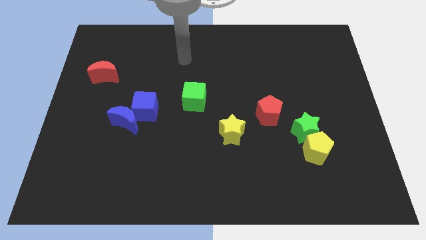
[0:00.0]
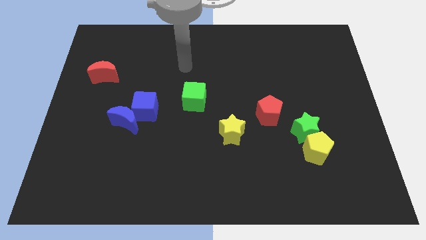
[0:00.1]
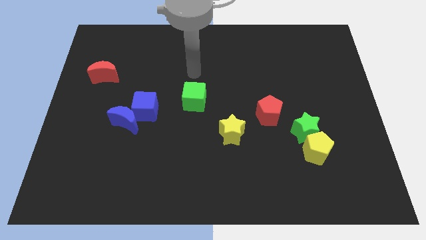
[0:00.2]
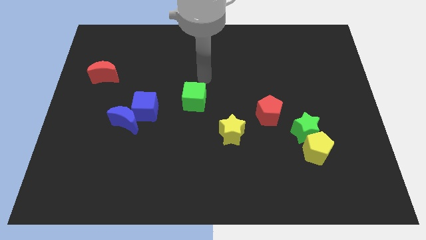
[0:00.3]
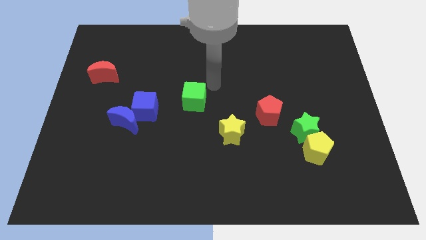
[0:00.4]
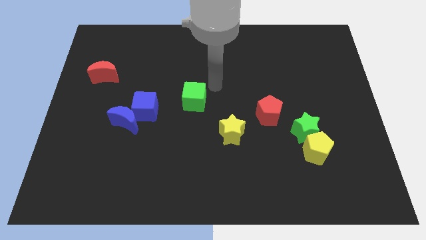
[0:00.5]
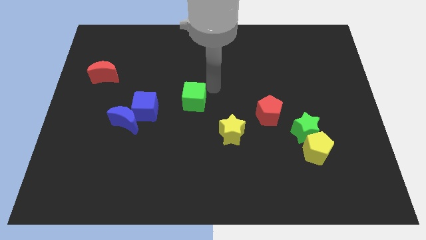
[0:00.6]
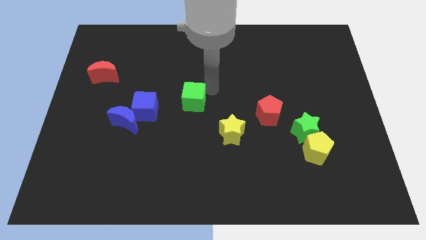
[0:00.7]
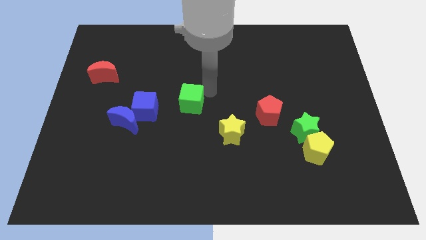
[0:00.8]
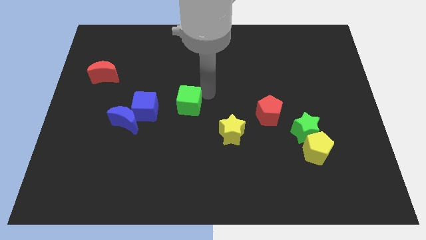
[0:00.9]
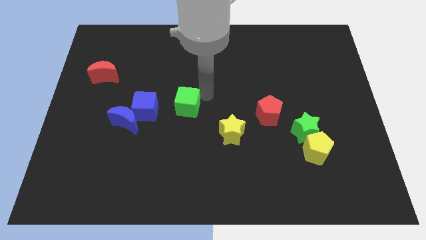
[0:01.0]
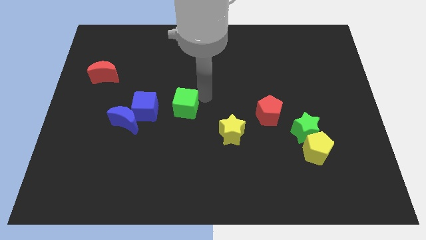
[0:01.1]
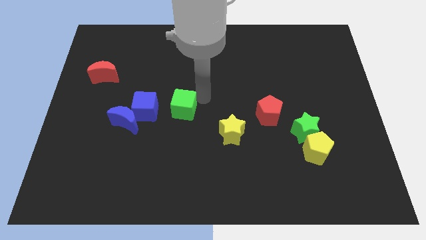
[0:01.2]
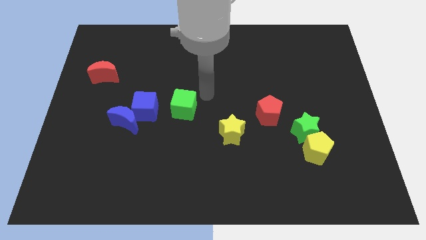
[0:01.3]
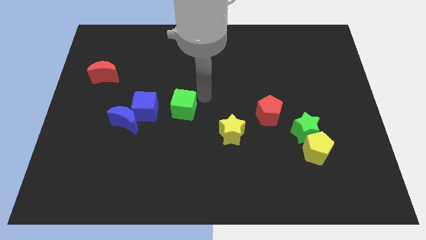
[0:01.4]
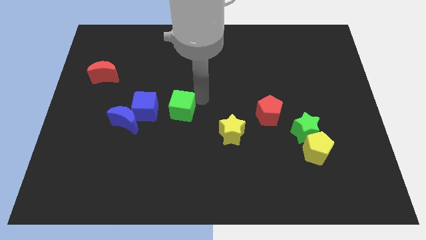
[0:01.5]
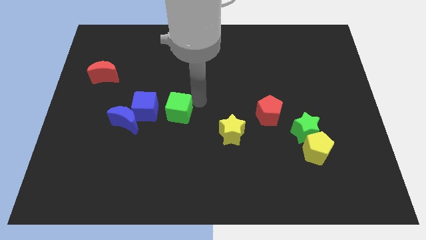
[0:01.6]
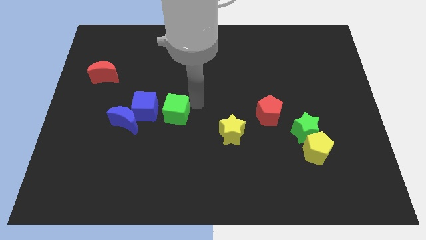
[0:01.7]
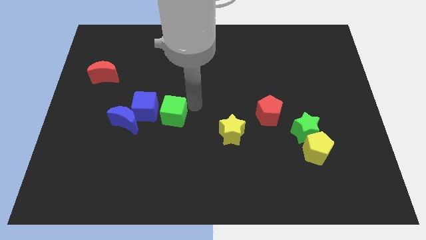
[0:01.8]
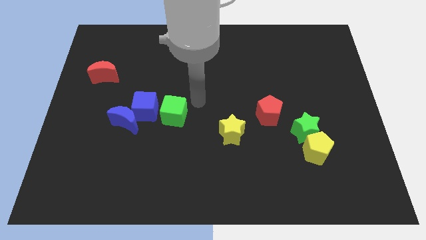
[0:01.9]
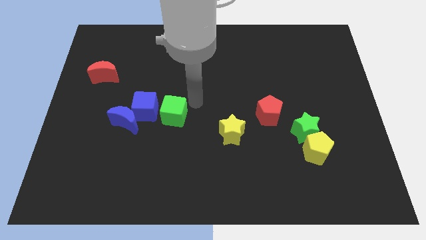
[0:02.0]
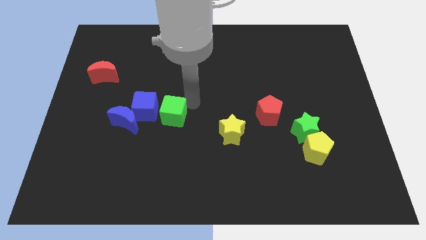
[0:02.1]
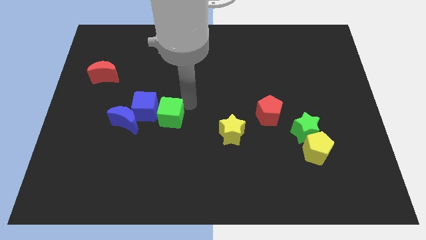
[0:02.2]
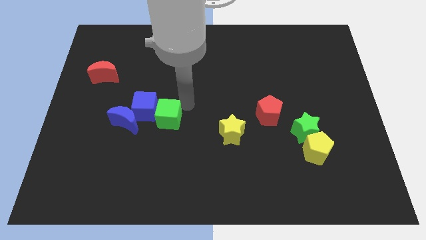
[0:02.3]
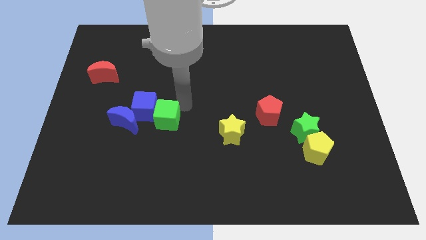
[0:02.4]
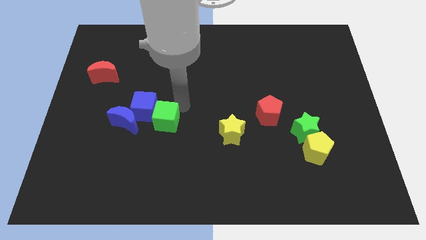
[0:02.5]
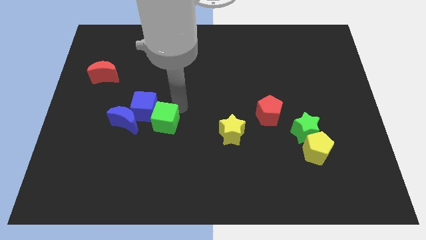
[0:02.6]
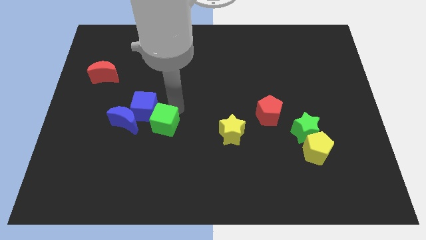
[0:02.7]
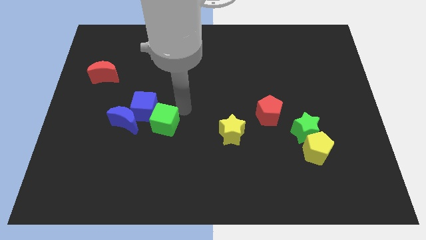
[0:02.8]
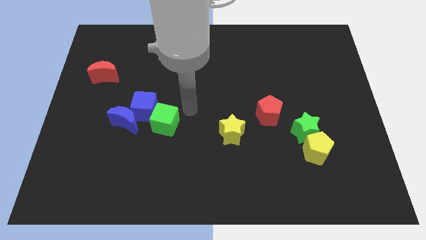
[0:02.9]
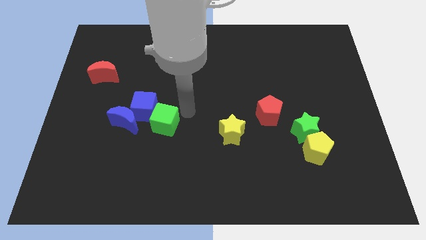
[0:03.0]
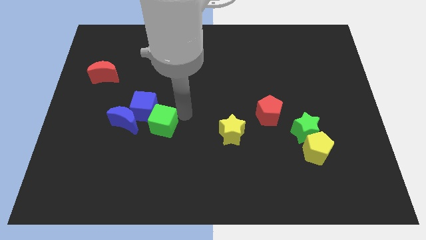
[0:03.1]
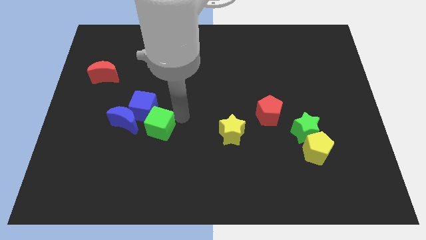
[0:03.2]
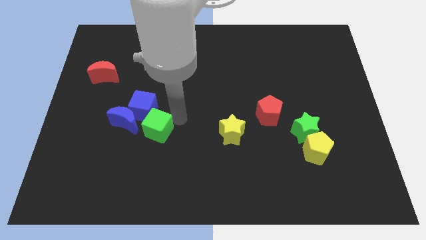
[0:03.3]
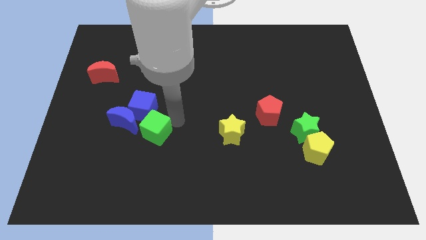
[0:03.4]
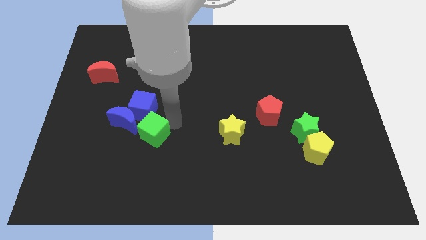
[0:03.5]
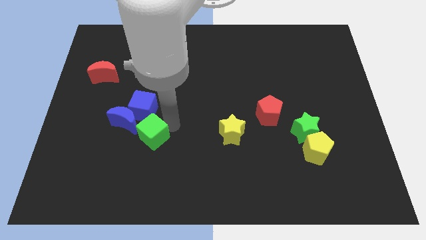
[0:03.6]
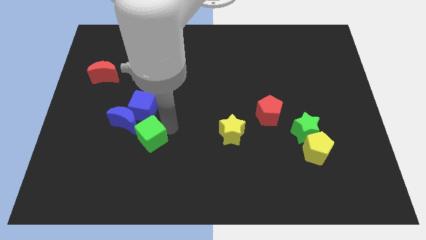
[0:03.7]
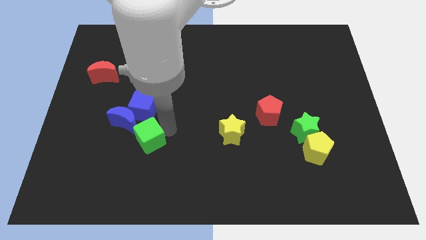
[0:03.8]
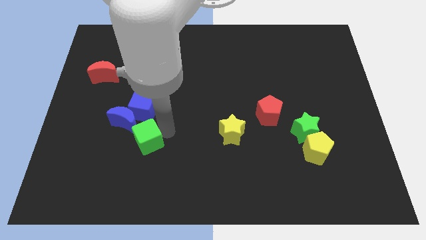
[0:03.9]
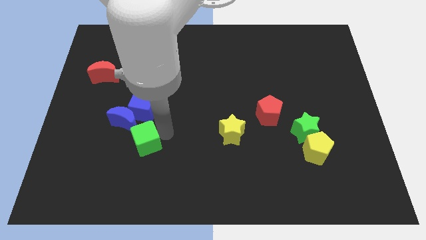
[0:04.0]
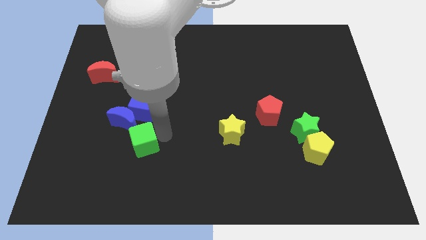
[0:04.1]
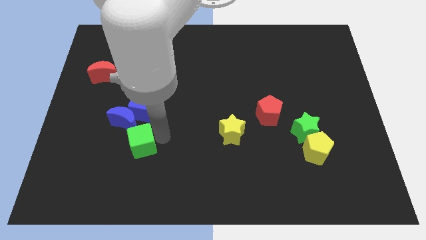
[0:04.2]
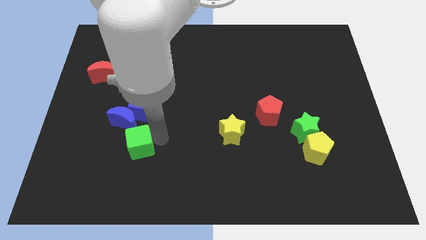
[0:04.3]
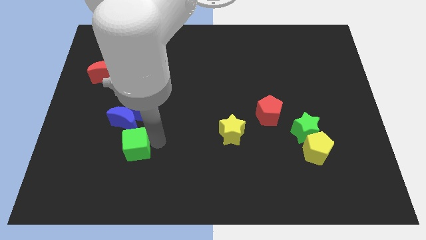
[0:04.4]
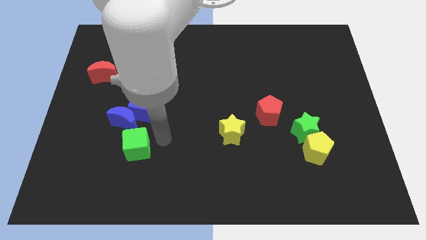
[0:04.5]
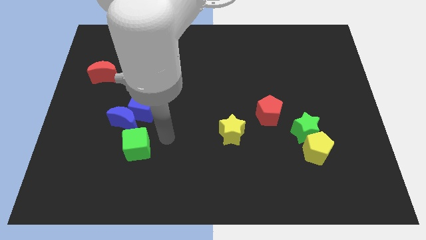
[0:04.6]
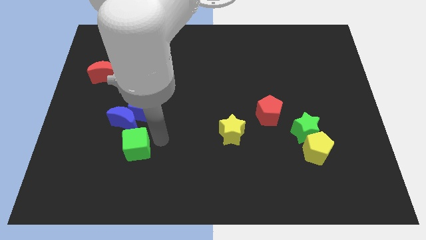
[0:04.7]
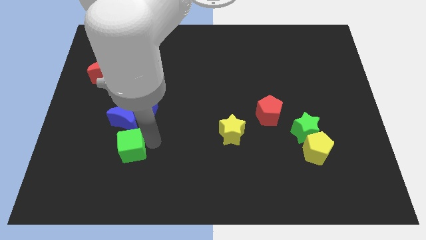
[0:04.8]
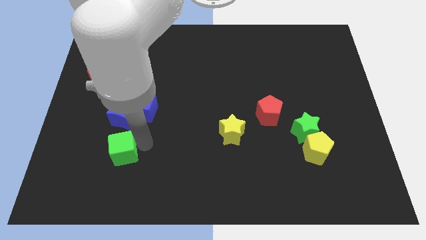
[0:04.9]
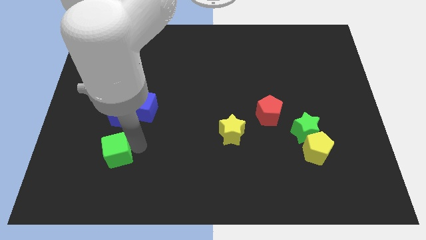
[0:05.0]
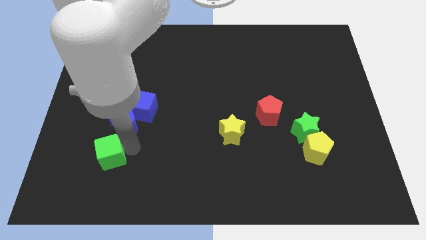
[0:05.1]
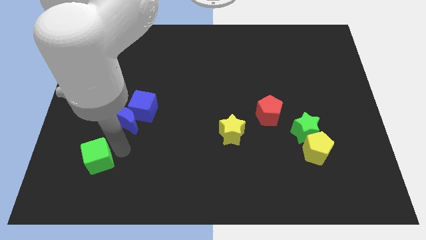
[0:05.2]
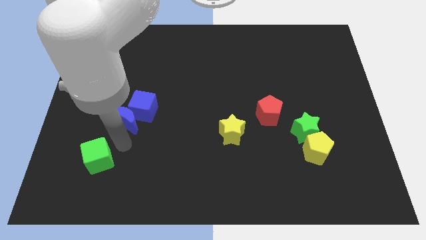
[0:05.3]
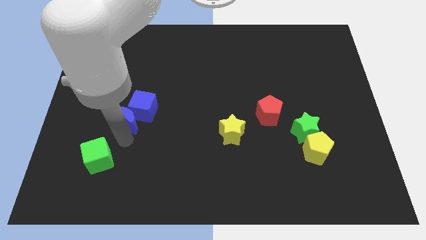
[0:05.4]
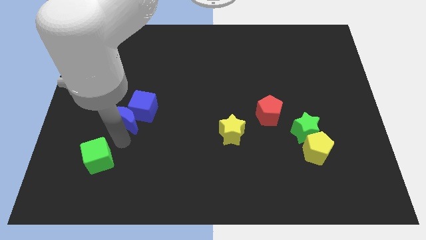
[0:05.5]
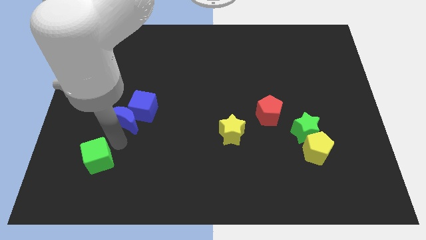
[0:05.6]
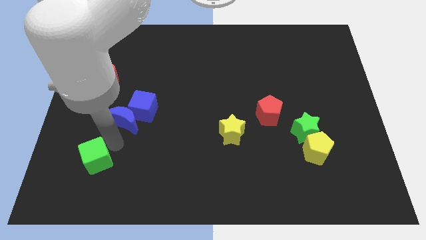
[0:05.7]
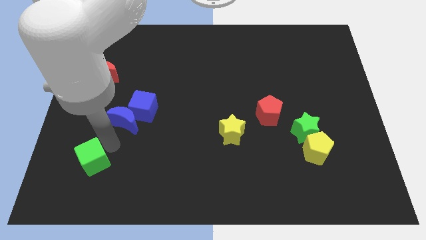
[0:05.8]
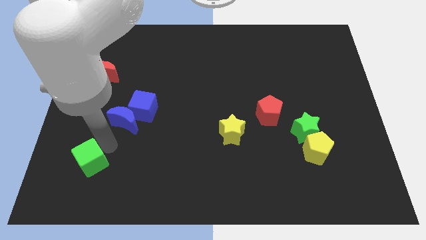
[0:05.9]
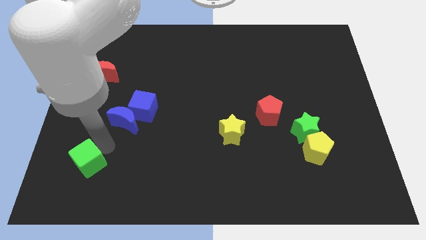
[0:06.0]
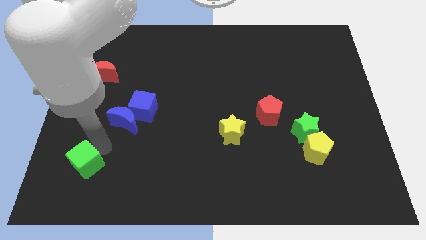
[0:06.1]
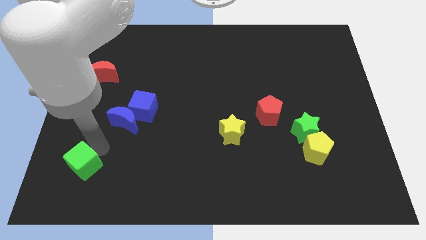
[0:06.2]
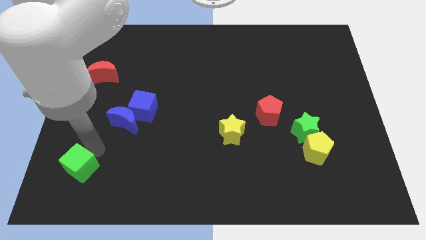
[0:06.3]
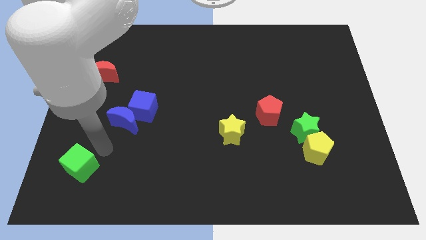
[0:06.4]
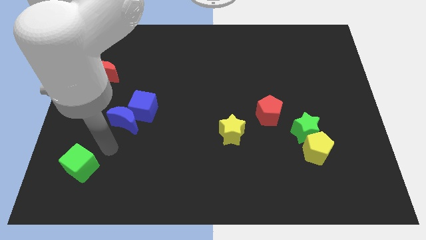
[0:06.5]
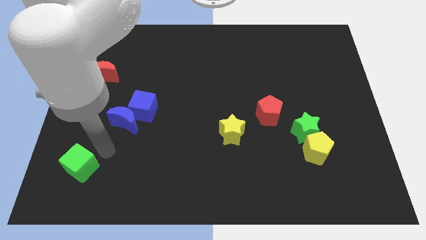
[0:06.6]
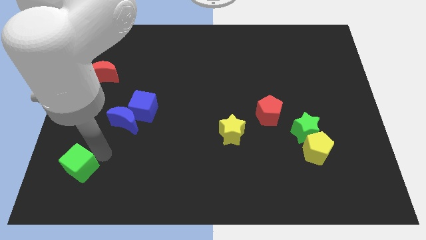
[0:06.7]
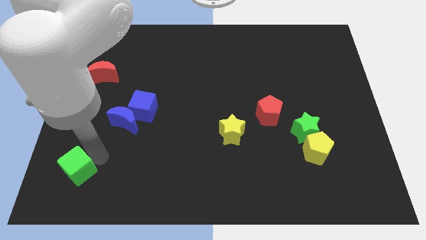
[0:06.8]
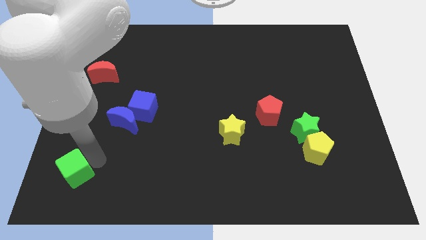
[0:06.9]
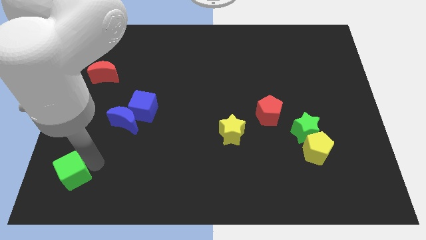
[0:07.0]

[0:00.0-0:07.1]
slide the green cube to the bottom left of the board
